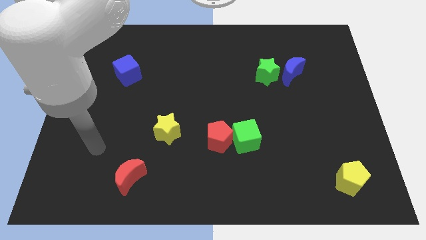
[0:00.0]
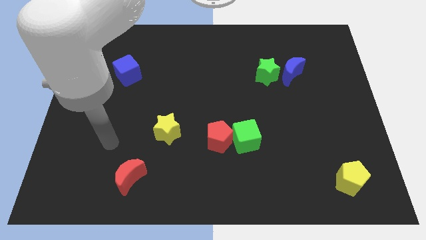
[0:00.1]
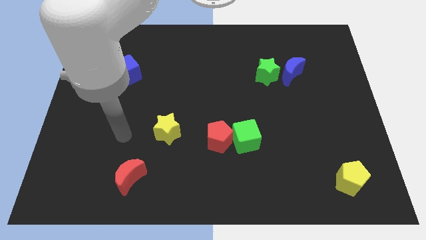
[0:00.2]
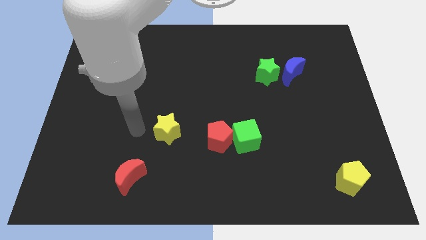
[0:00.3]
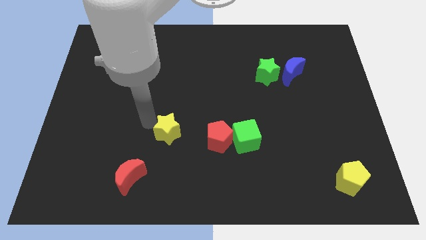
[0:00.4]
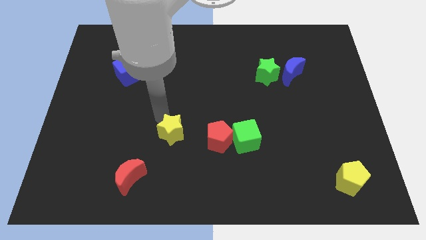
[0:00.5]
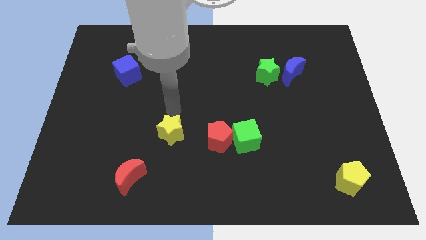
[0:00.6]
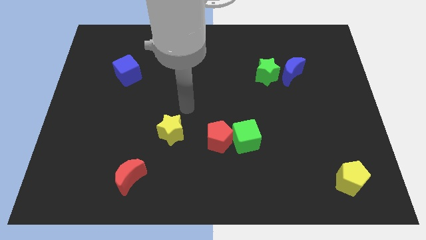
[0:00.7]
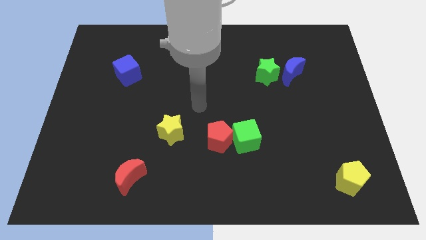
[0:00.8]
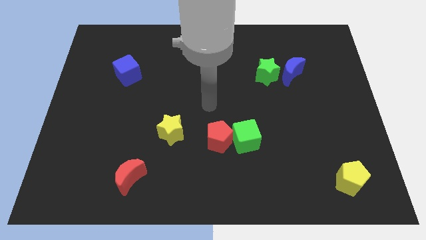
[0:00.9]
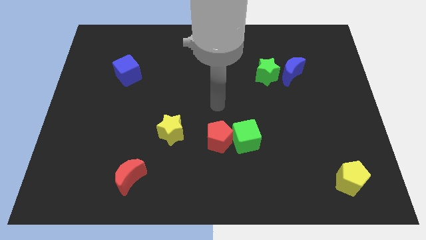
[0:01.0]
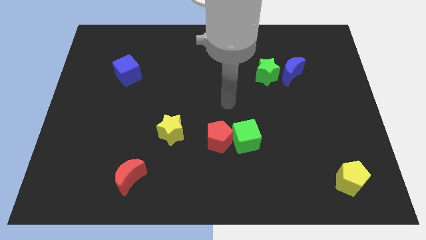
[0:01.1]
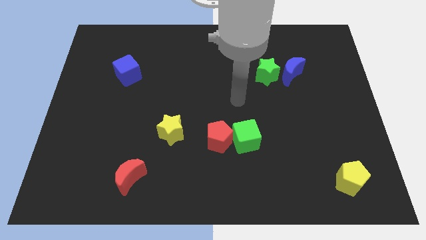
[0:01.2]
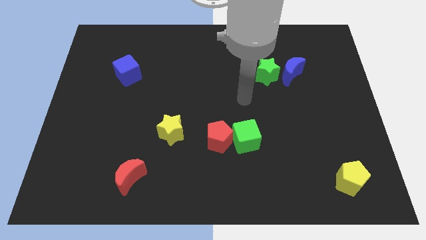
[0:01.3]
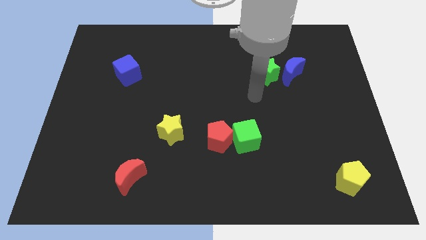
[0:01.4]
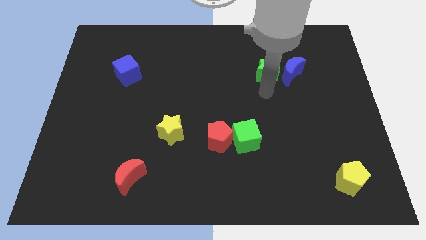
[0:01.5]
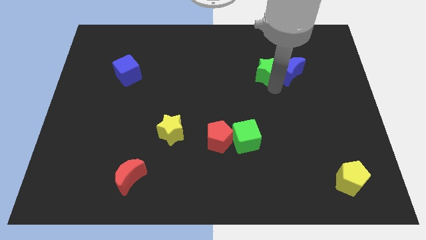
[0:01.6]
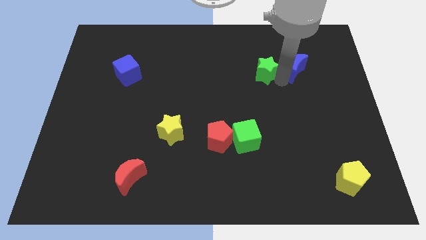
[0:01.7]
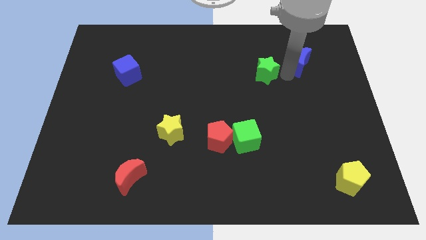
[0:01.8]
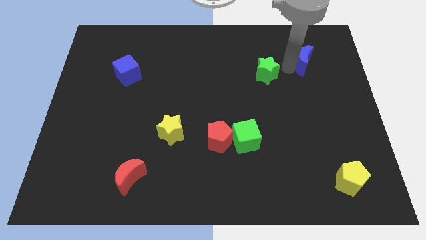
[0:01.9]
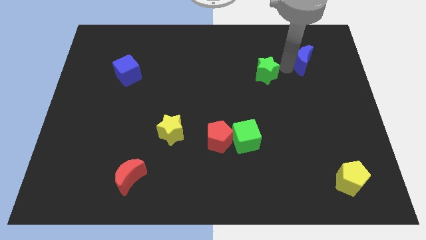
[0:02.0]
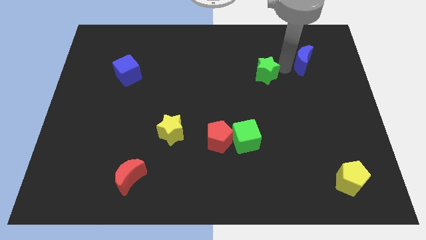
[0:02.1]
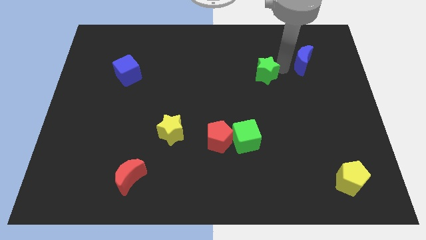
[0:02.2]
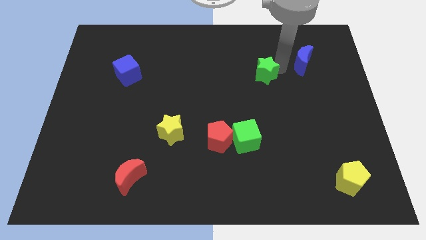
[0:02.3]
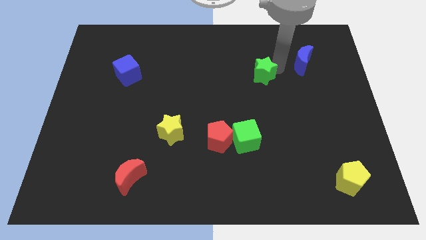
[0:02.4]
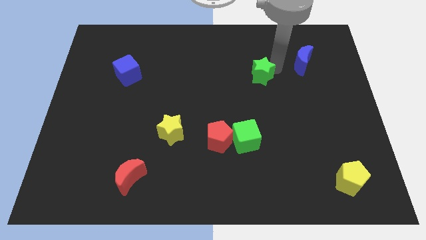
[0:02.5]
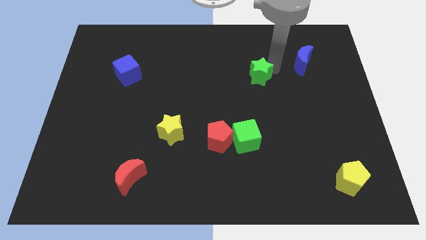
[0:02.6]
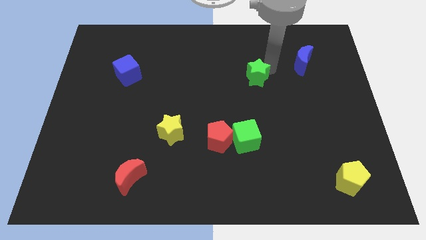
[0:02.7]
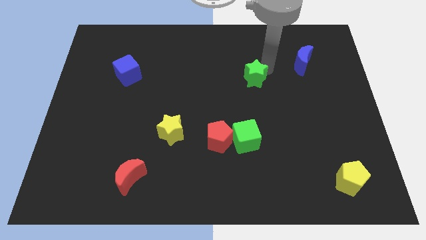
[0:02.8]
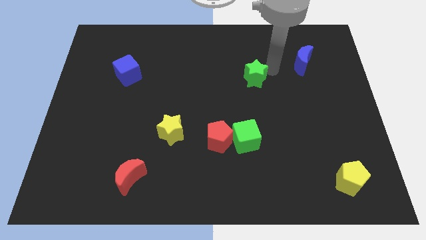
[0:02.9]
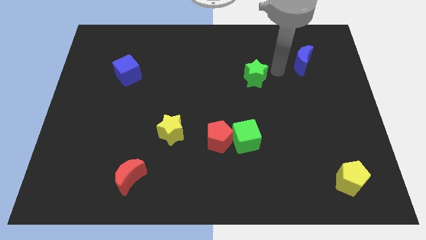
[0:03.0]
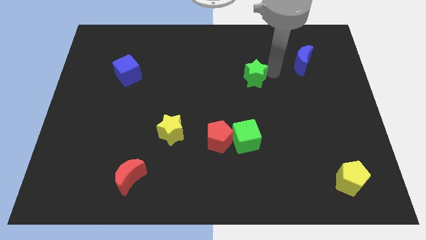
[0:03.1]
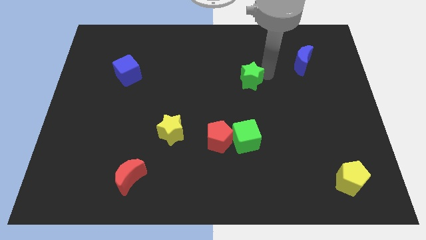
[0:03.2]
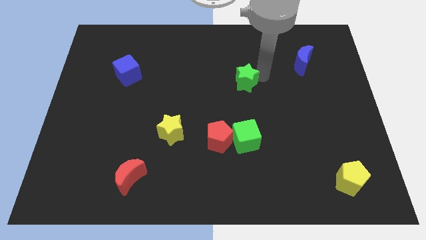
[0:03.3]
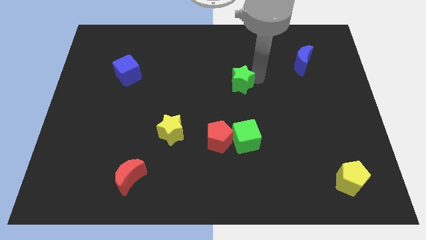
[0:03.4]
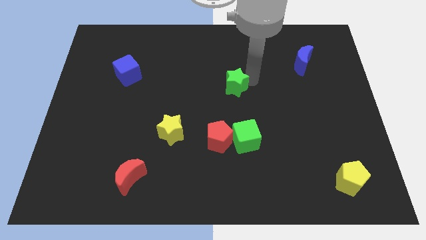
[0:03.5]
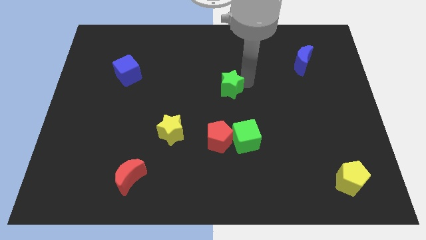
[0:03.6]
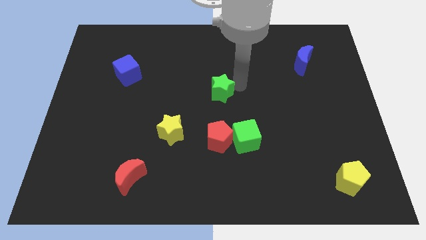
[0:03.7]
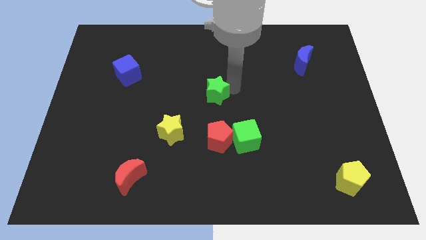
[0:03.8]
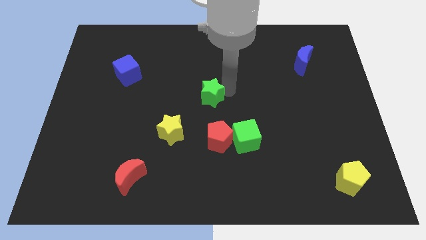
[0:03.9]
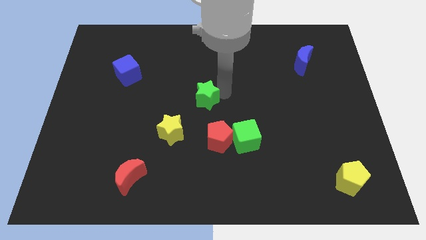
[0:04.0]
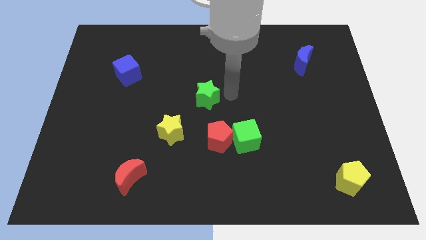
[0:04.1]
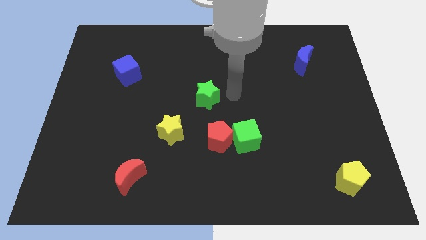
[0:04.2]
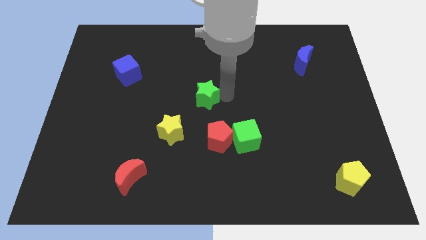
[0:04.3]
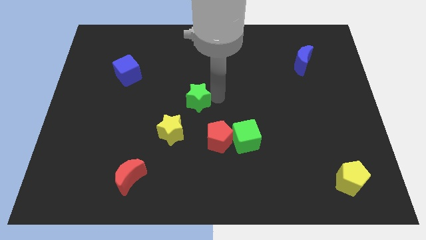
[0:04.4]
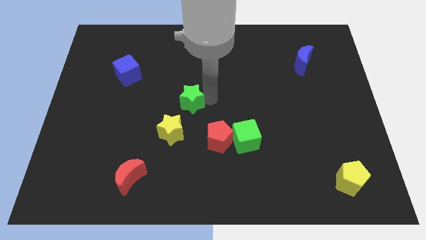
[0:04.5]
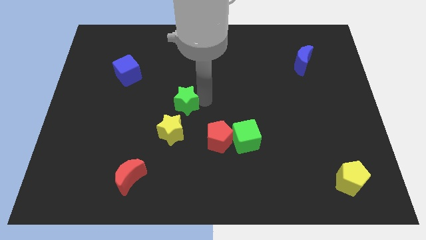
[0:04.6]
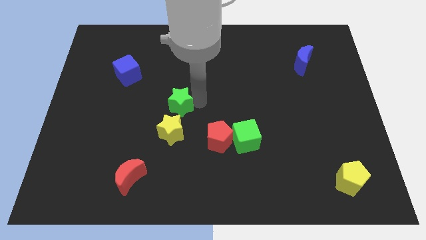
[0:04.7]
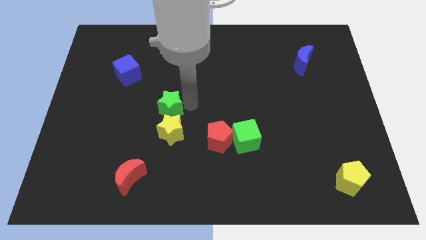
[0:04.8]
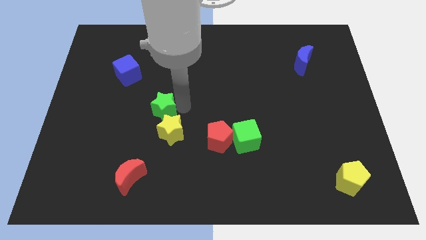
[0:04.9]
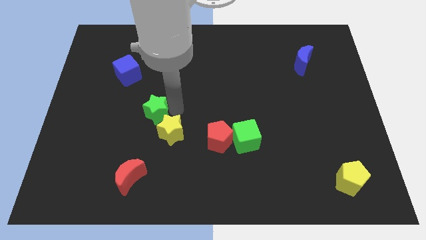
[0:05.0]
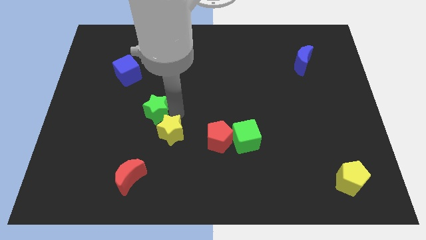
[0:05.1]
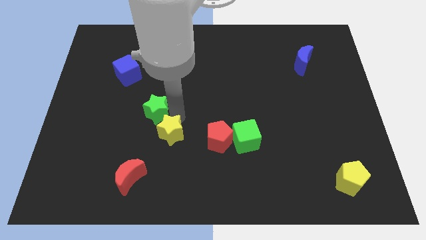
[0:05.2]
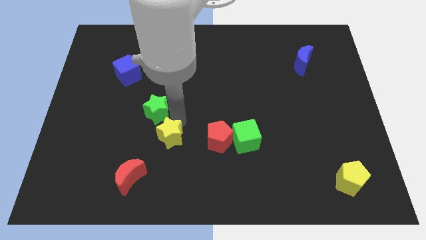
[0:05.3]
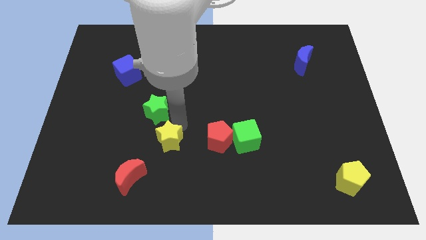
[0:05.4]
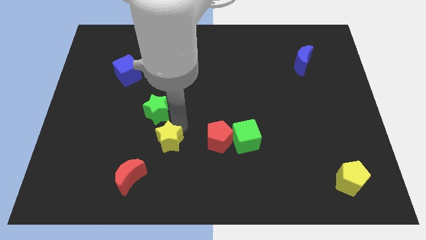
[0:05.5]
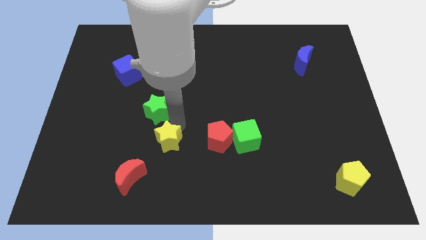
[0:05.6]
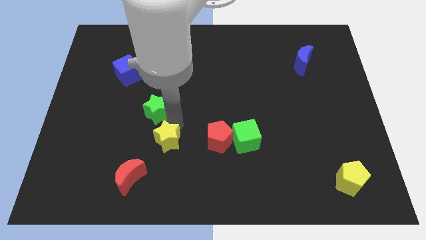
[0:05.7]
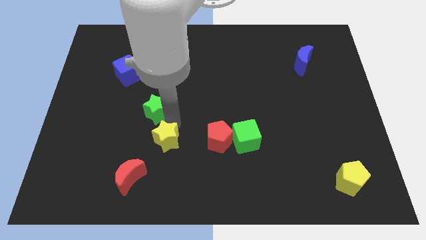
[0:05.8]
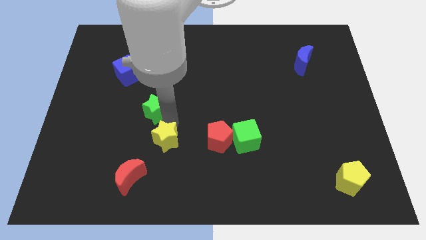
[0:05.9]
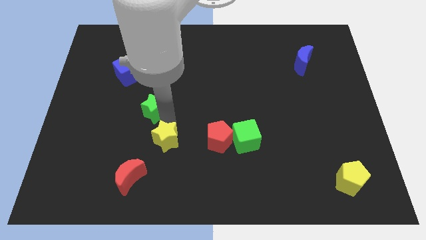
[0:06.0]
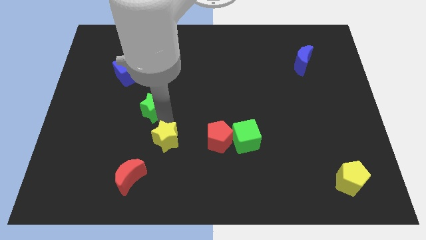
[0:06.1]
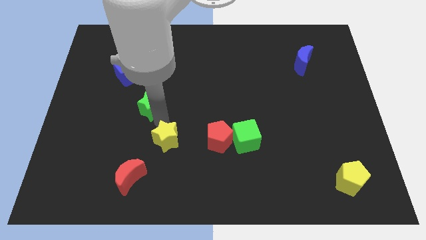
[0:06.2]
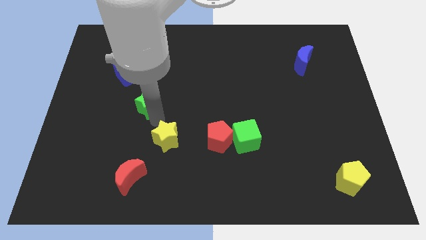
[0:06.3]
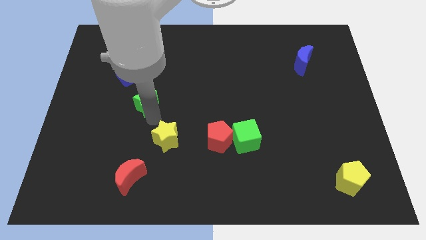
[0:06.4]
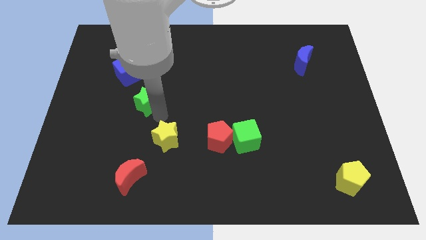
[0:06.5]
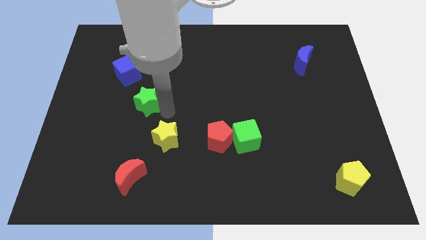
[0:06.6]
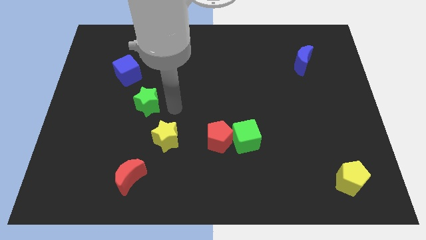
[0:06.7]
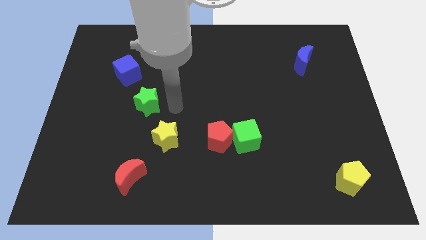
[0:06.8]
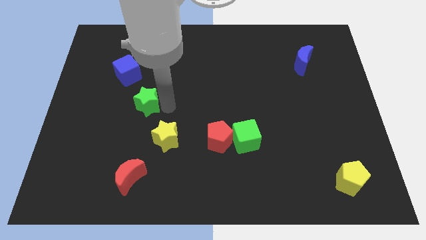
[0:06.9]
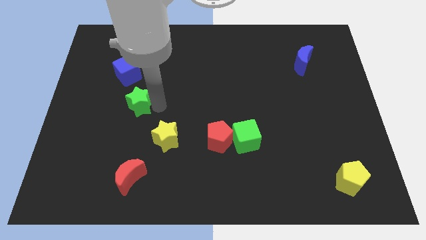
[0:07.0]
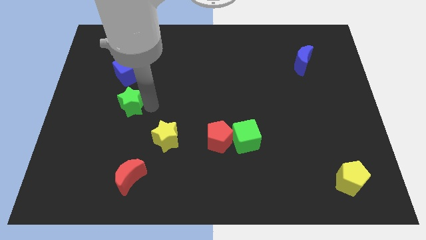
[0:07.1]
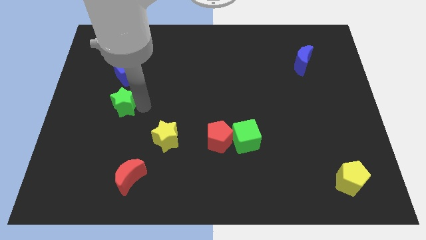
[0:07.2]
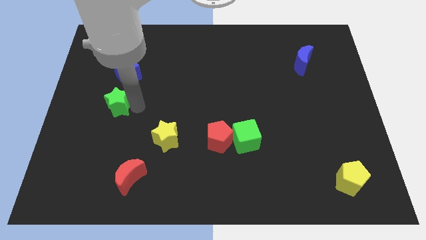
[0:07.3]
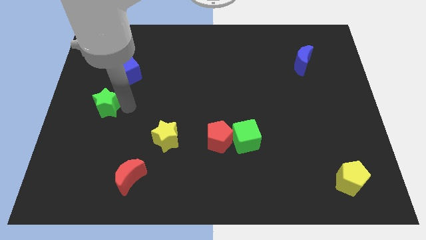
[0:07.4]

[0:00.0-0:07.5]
put the green star to the center left
